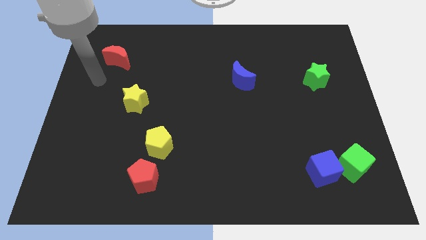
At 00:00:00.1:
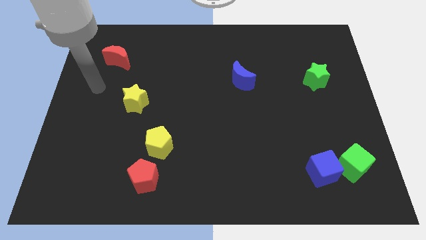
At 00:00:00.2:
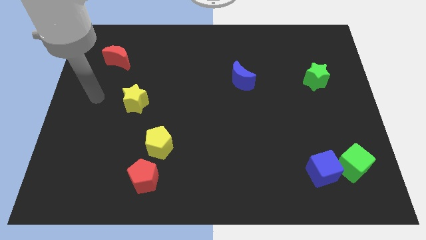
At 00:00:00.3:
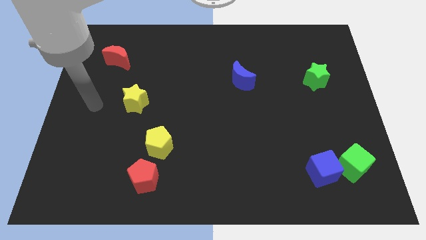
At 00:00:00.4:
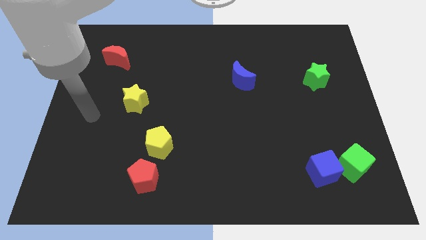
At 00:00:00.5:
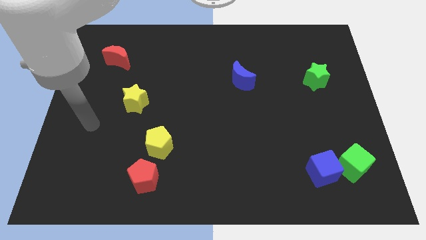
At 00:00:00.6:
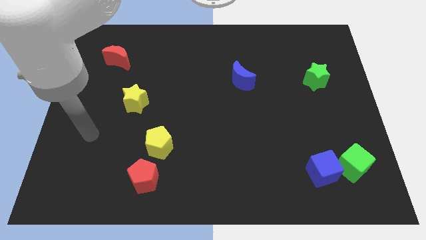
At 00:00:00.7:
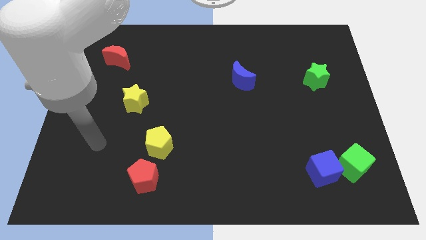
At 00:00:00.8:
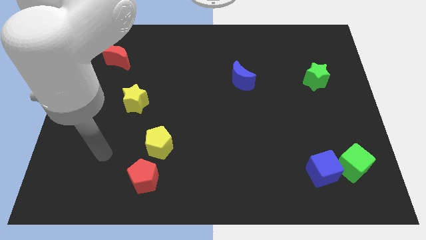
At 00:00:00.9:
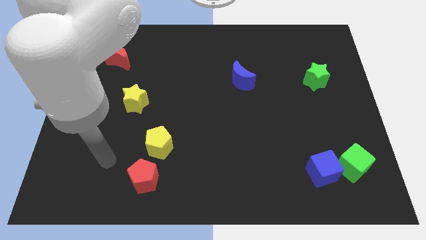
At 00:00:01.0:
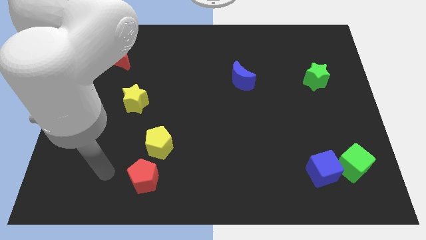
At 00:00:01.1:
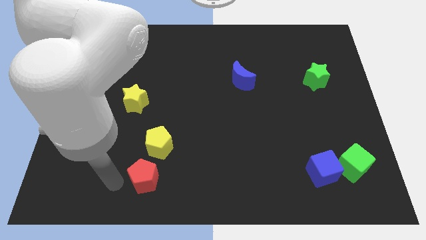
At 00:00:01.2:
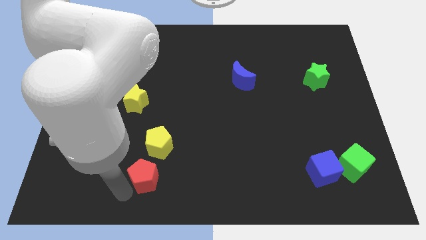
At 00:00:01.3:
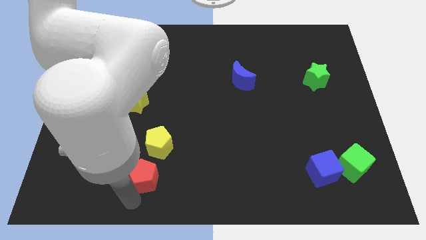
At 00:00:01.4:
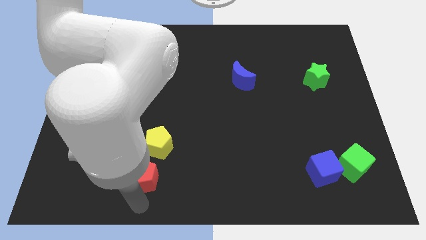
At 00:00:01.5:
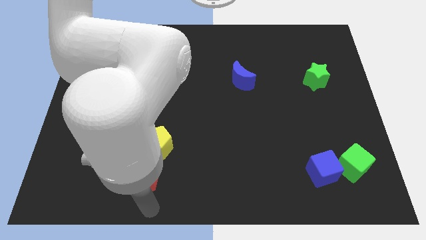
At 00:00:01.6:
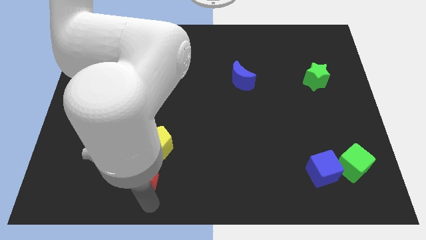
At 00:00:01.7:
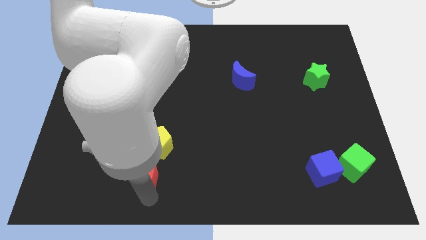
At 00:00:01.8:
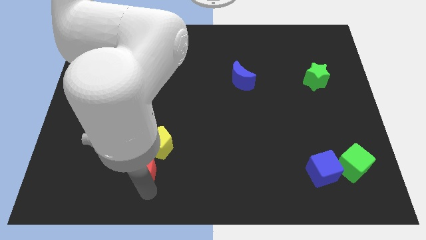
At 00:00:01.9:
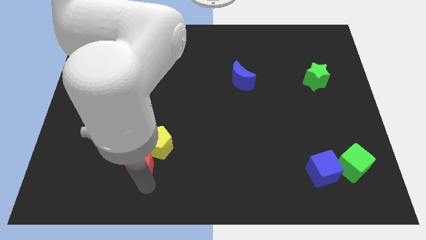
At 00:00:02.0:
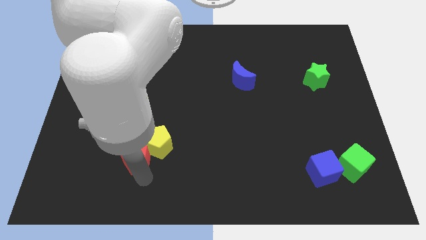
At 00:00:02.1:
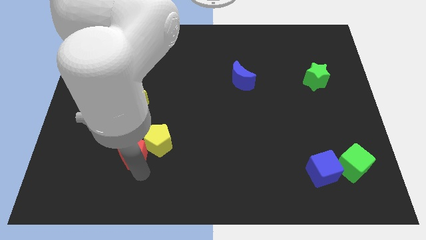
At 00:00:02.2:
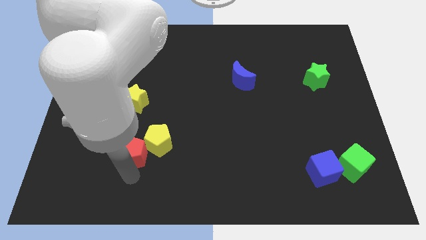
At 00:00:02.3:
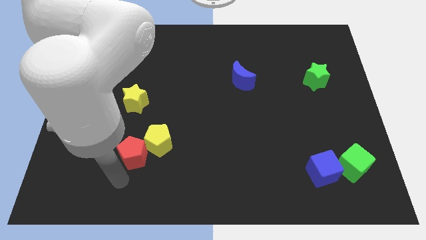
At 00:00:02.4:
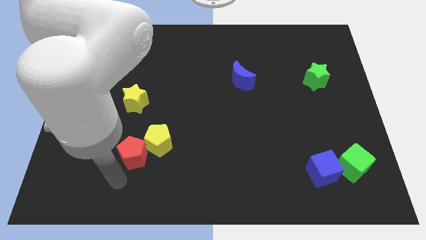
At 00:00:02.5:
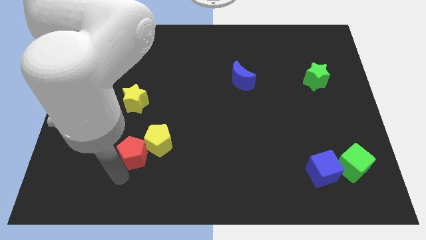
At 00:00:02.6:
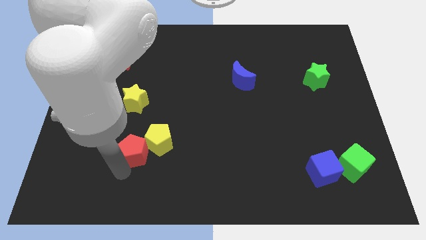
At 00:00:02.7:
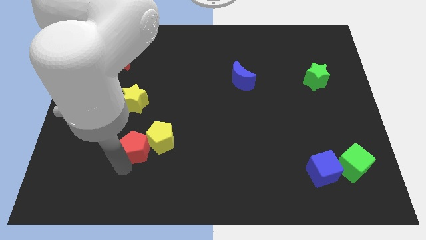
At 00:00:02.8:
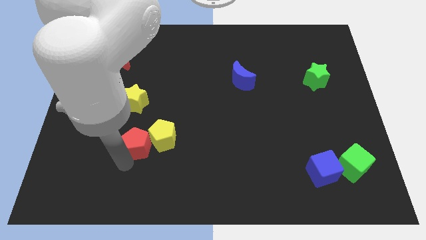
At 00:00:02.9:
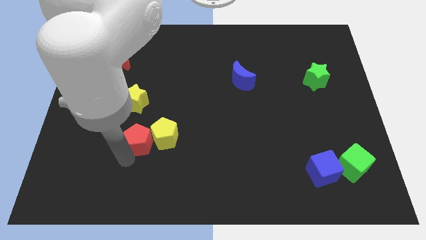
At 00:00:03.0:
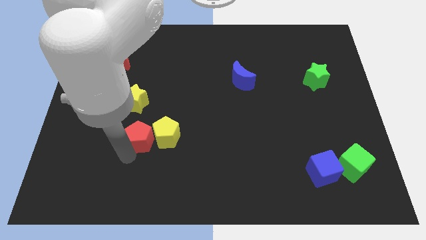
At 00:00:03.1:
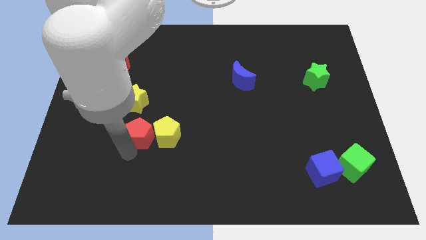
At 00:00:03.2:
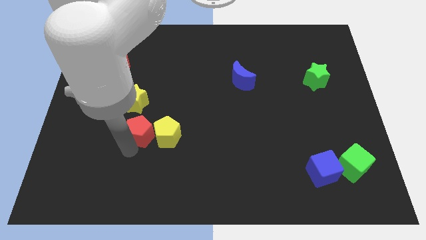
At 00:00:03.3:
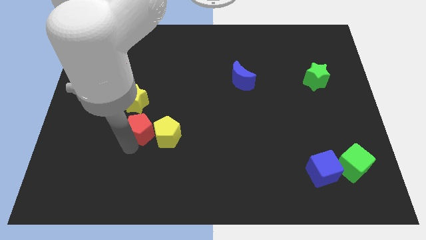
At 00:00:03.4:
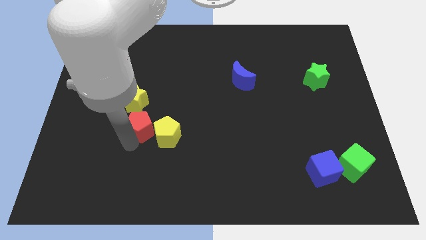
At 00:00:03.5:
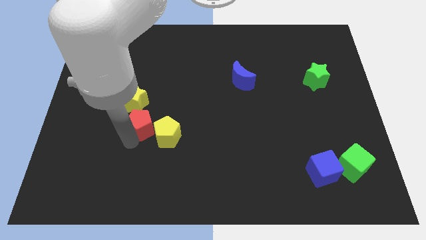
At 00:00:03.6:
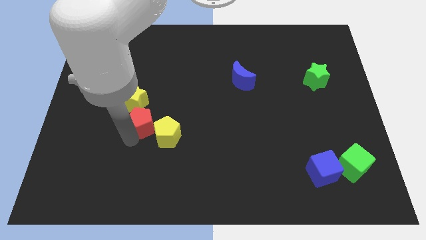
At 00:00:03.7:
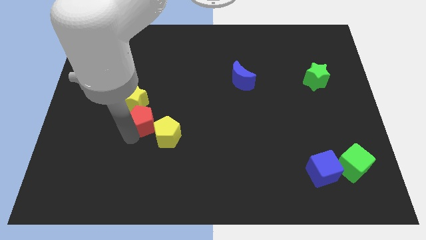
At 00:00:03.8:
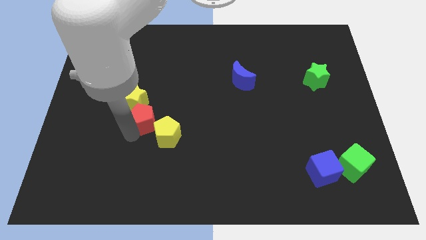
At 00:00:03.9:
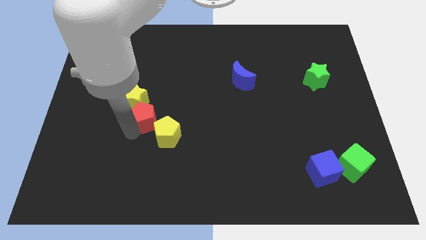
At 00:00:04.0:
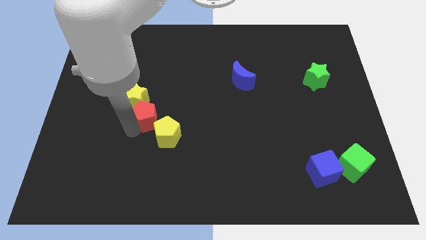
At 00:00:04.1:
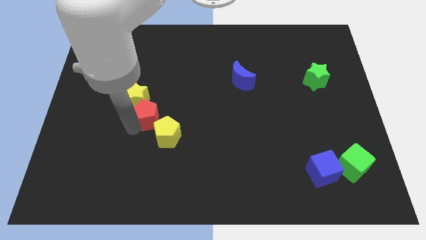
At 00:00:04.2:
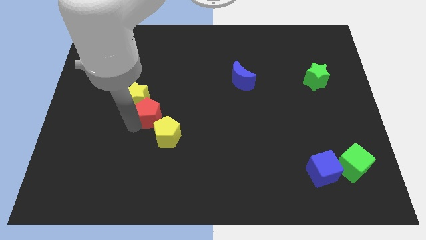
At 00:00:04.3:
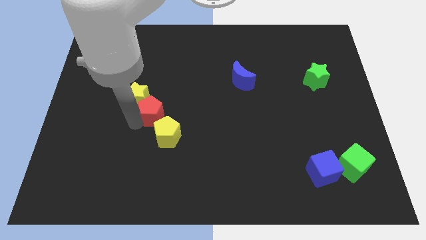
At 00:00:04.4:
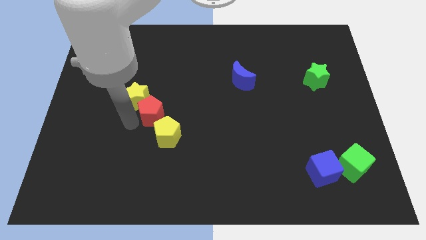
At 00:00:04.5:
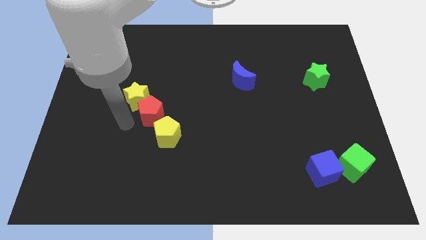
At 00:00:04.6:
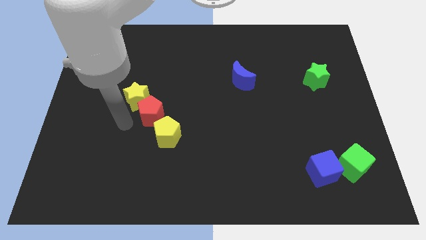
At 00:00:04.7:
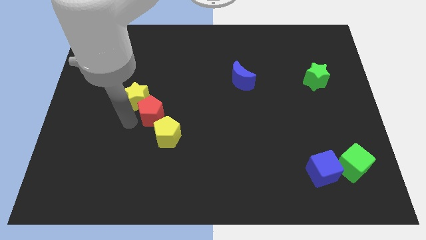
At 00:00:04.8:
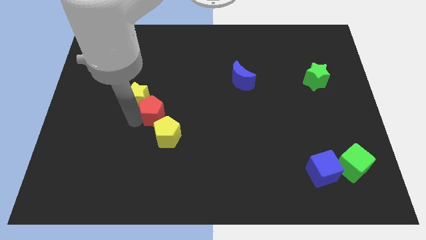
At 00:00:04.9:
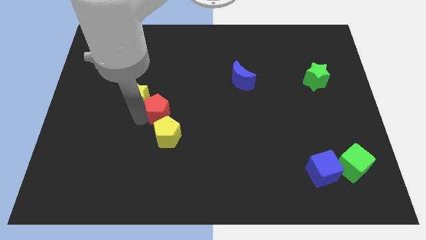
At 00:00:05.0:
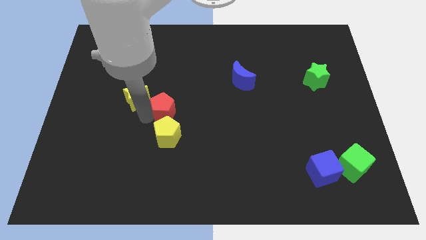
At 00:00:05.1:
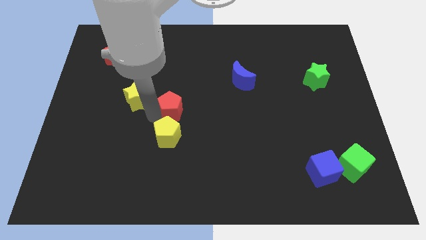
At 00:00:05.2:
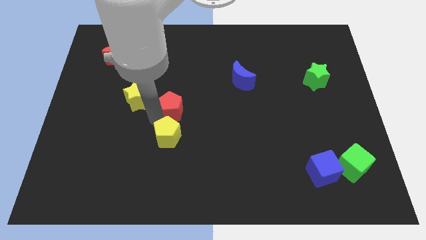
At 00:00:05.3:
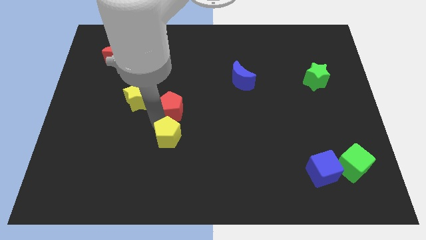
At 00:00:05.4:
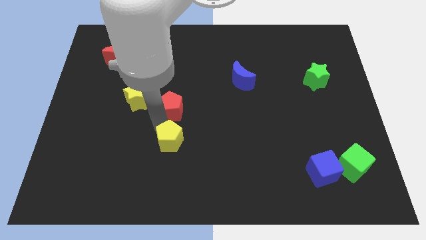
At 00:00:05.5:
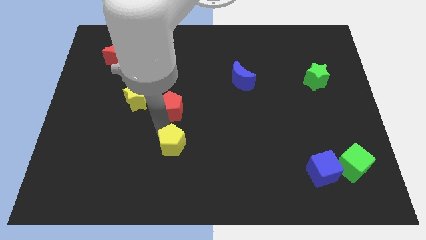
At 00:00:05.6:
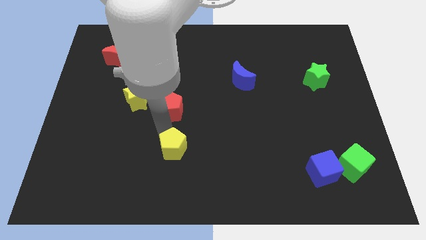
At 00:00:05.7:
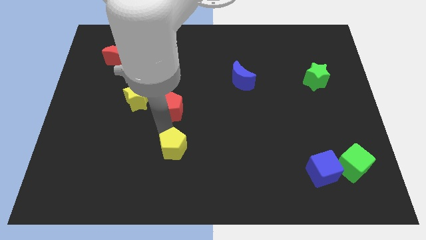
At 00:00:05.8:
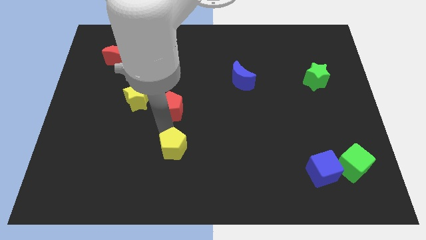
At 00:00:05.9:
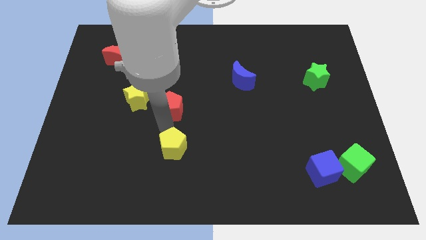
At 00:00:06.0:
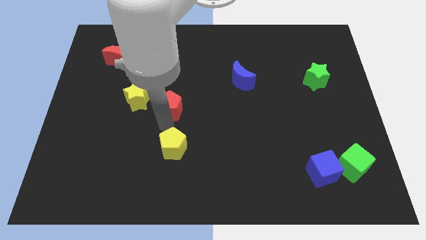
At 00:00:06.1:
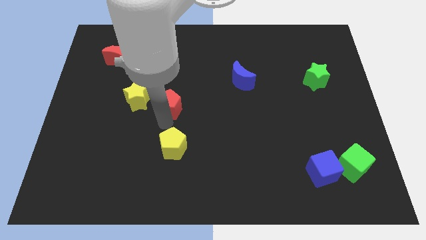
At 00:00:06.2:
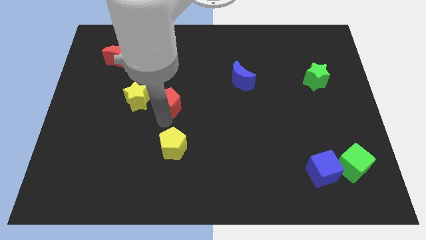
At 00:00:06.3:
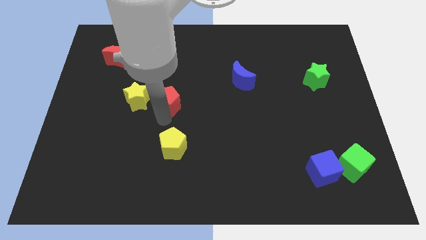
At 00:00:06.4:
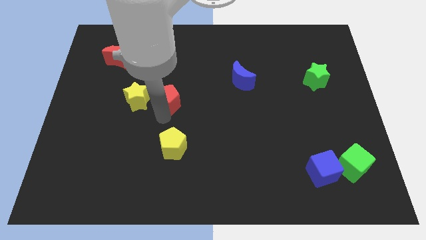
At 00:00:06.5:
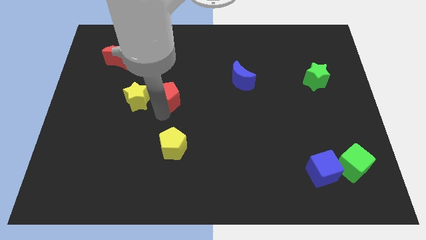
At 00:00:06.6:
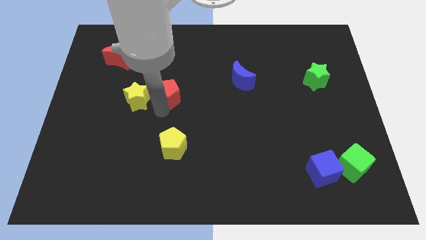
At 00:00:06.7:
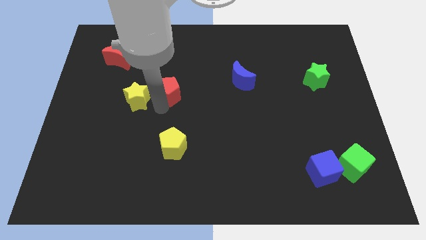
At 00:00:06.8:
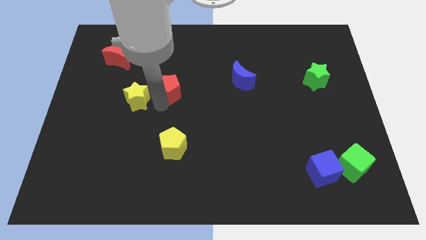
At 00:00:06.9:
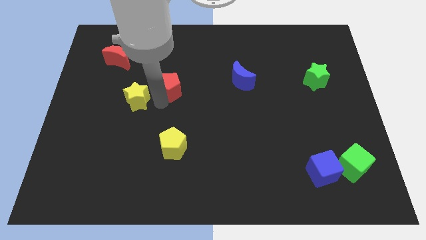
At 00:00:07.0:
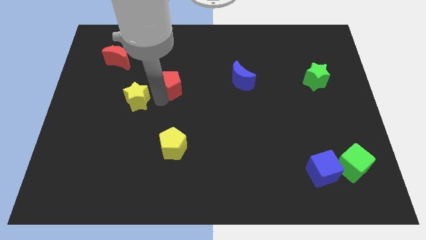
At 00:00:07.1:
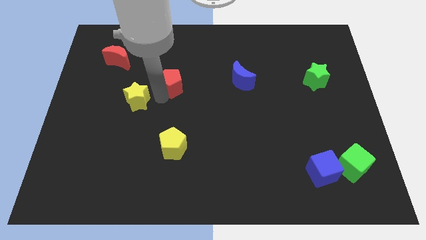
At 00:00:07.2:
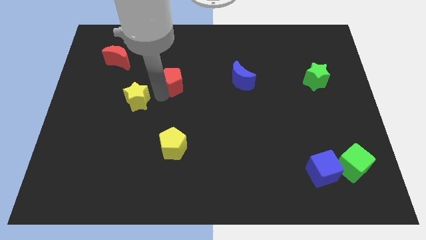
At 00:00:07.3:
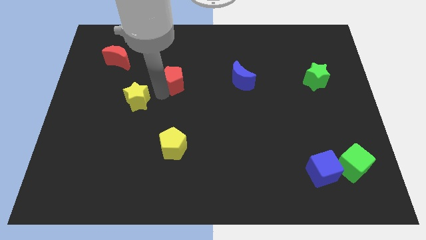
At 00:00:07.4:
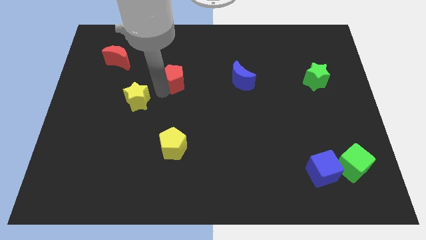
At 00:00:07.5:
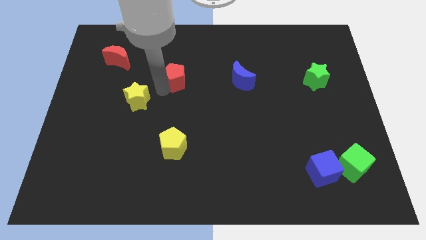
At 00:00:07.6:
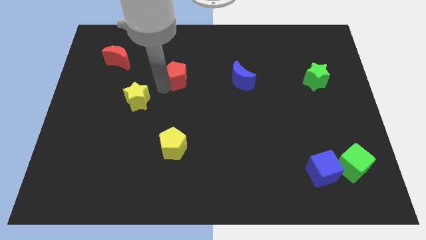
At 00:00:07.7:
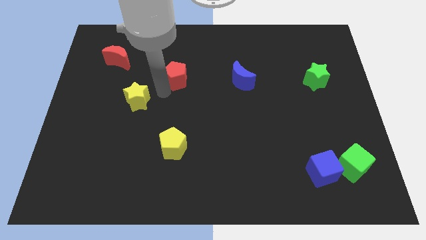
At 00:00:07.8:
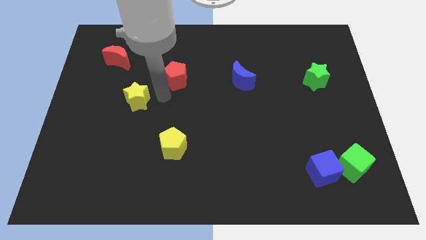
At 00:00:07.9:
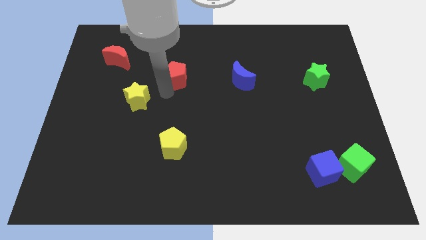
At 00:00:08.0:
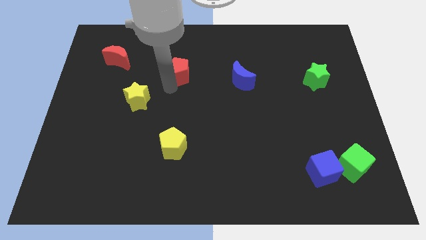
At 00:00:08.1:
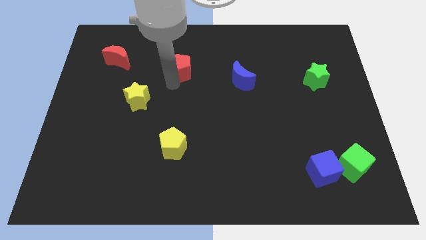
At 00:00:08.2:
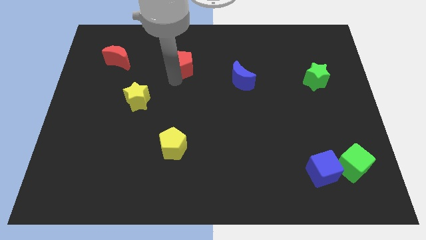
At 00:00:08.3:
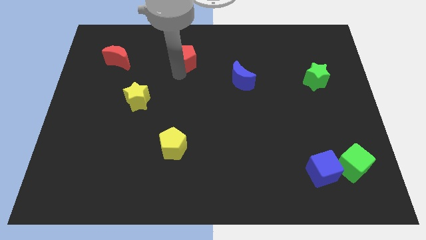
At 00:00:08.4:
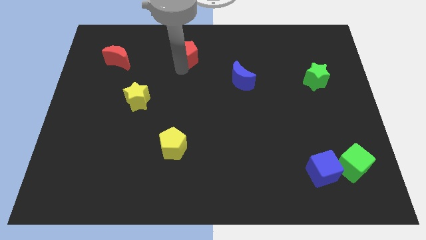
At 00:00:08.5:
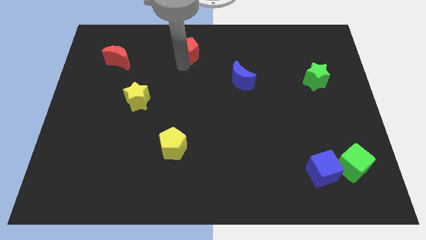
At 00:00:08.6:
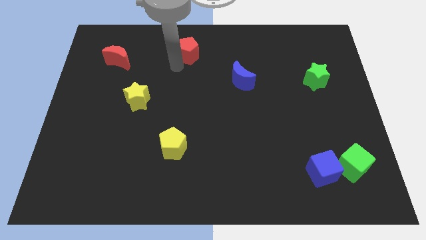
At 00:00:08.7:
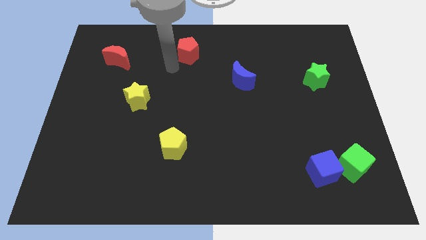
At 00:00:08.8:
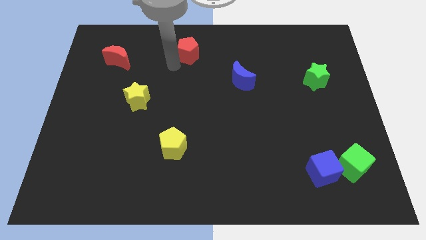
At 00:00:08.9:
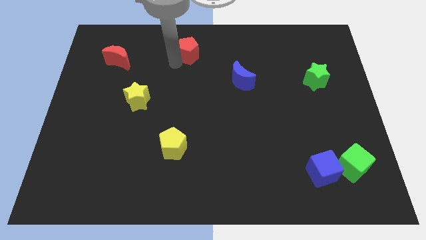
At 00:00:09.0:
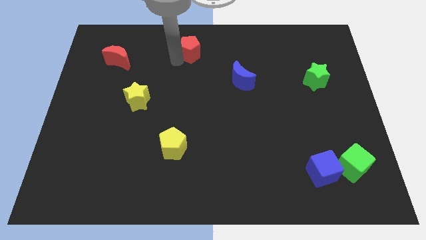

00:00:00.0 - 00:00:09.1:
push the red pentagon to the top
